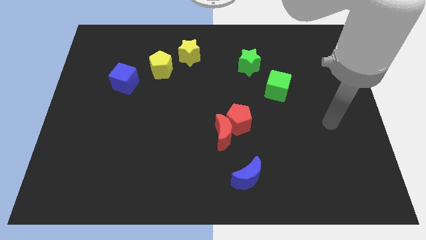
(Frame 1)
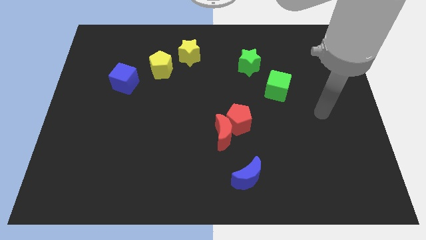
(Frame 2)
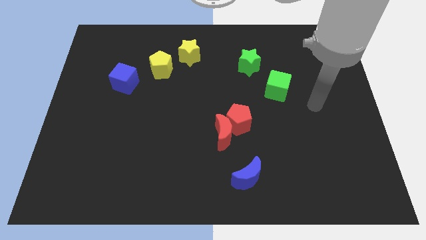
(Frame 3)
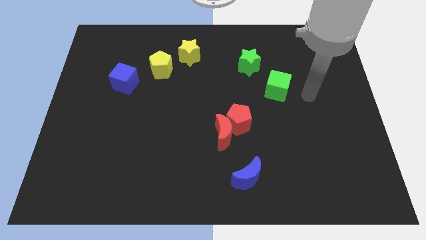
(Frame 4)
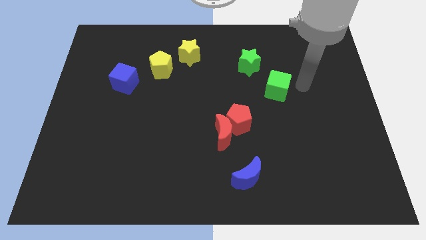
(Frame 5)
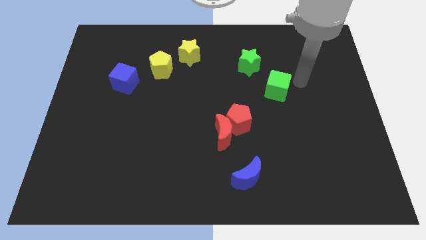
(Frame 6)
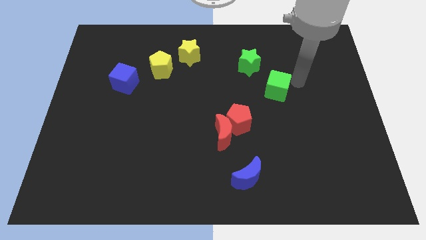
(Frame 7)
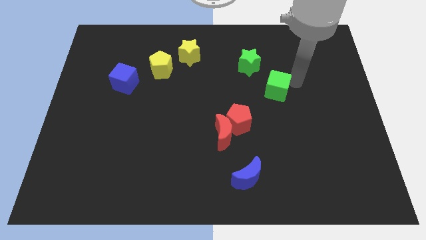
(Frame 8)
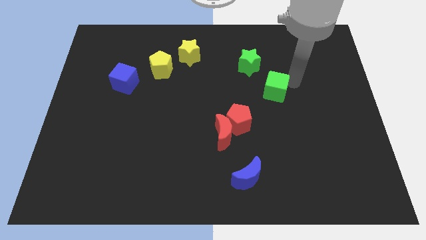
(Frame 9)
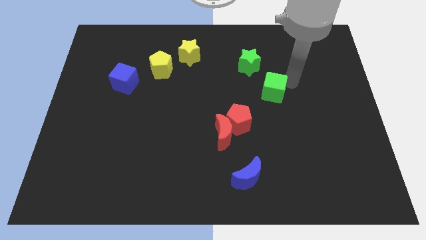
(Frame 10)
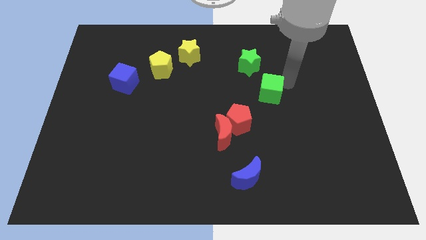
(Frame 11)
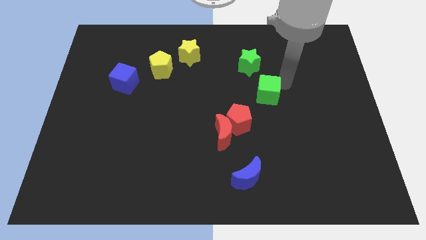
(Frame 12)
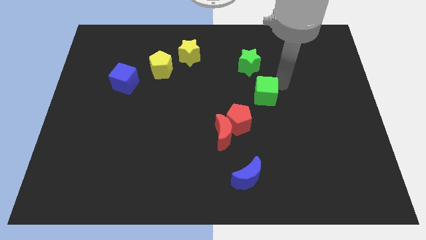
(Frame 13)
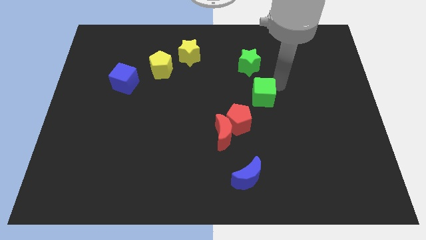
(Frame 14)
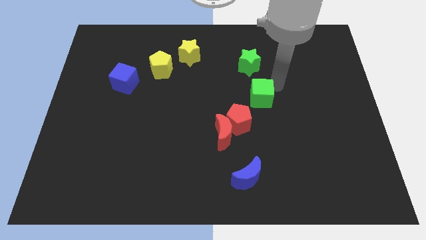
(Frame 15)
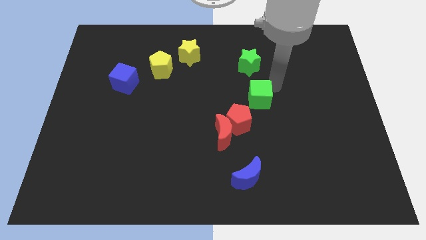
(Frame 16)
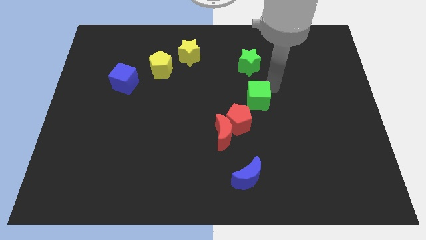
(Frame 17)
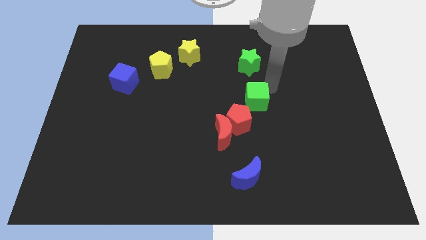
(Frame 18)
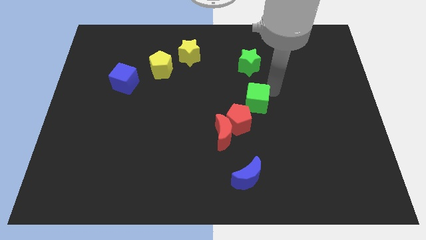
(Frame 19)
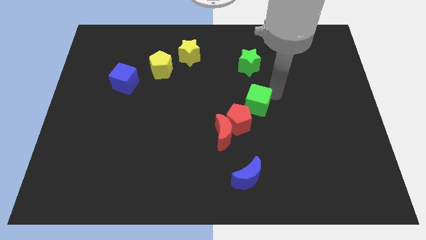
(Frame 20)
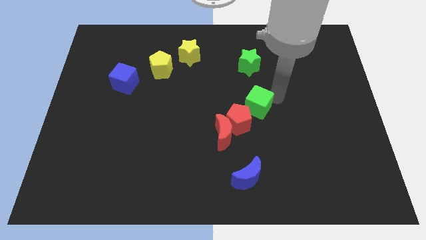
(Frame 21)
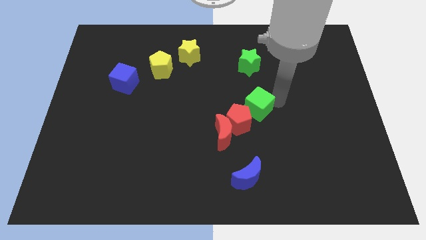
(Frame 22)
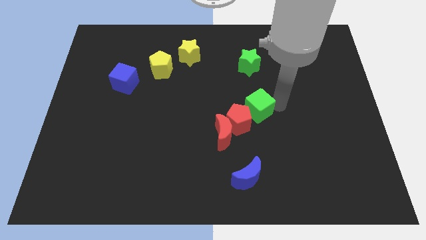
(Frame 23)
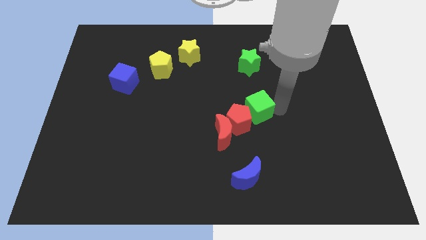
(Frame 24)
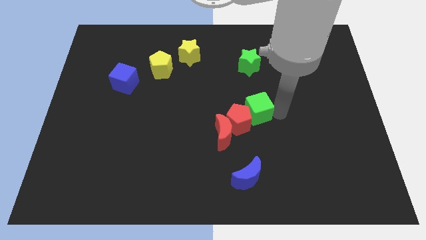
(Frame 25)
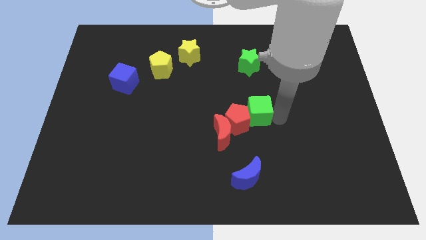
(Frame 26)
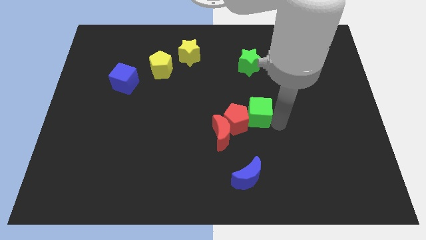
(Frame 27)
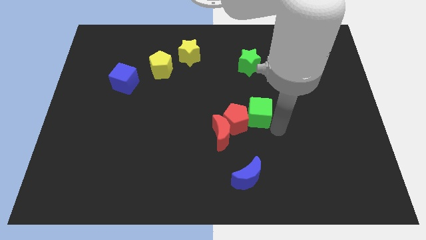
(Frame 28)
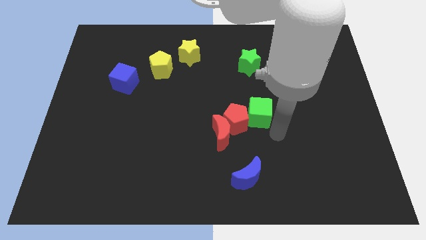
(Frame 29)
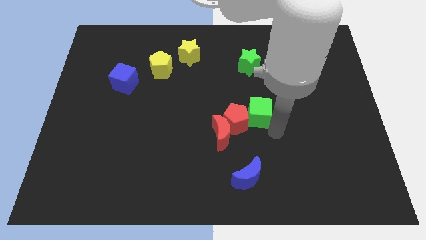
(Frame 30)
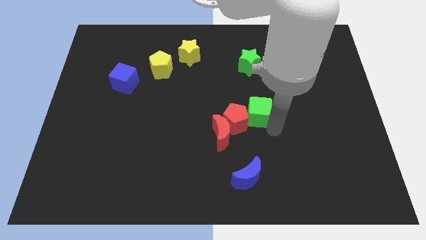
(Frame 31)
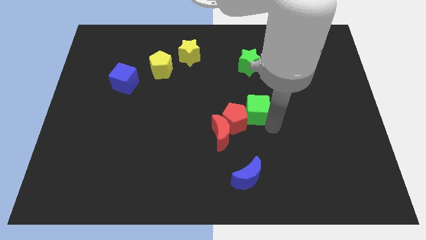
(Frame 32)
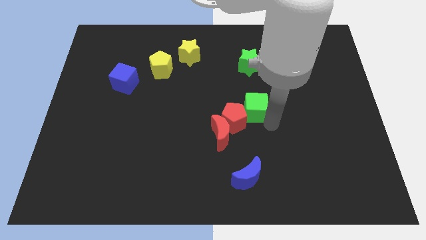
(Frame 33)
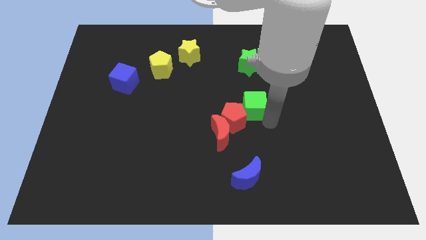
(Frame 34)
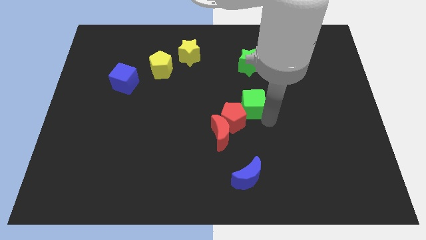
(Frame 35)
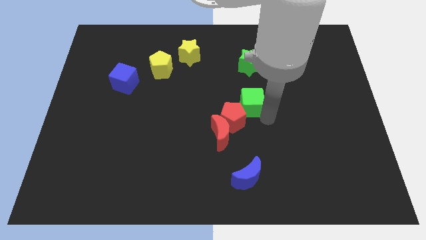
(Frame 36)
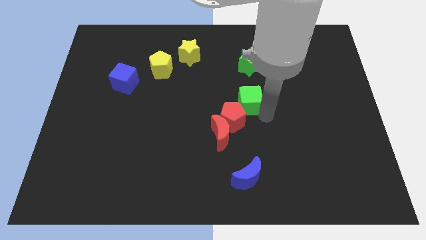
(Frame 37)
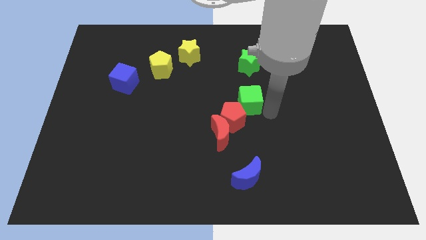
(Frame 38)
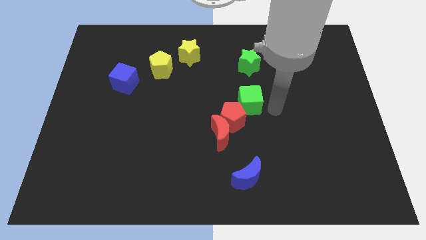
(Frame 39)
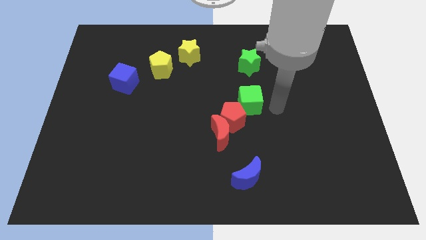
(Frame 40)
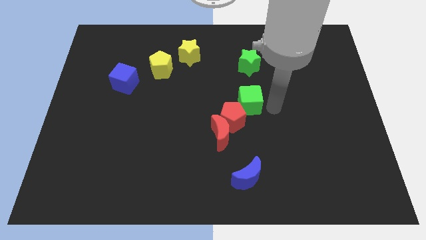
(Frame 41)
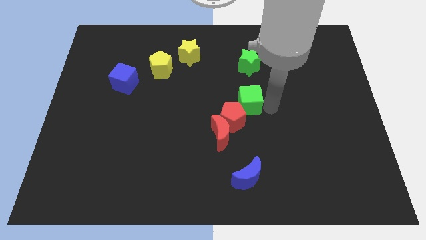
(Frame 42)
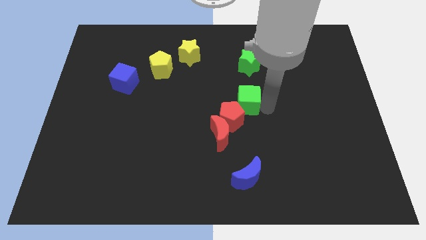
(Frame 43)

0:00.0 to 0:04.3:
slightly push the green cube to the left

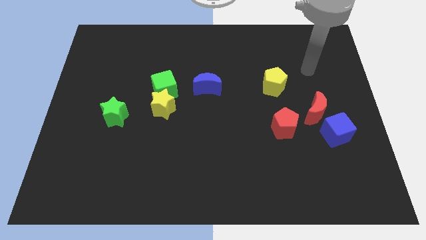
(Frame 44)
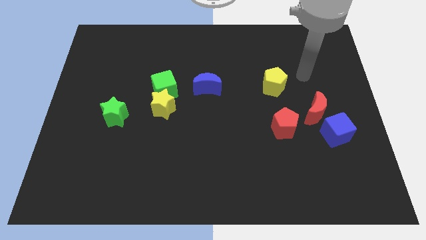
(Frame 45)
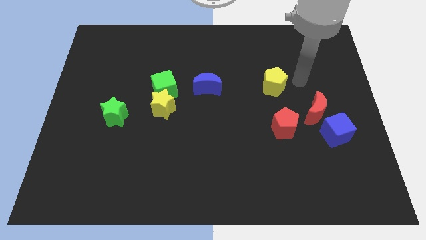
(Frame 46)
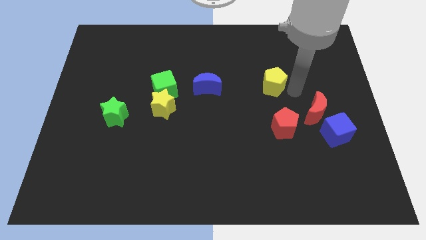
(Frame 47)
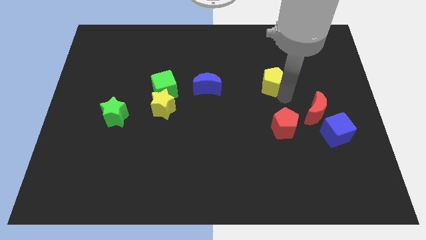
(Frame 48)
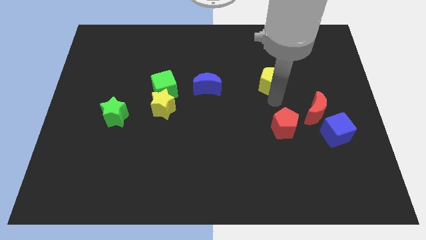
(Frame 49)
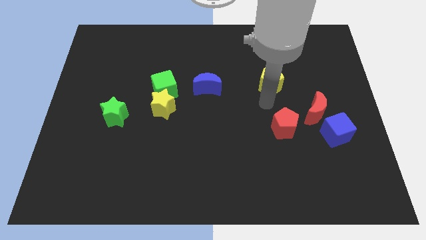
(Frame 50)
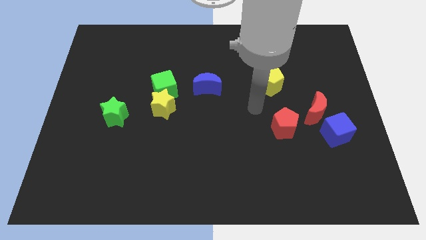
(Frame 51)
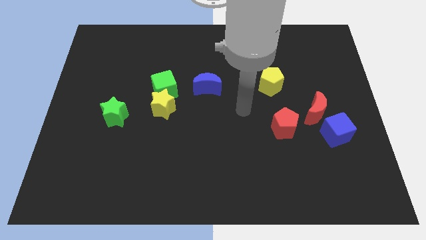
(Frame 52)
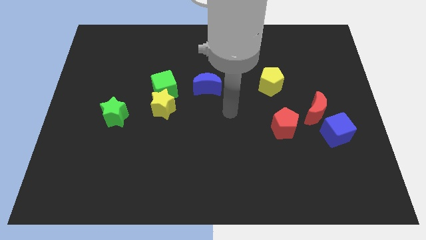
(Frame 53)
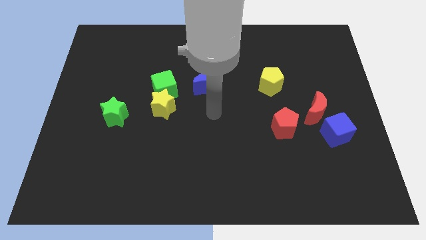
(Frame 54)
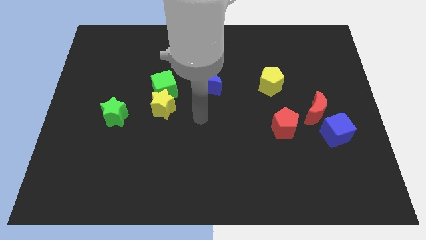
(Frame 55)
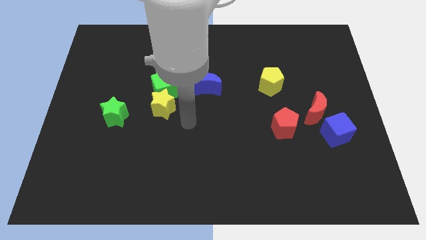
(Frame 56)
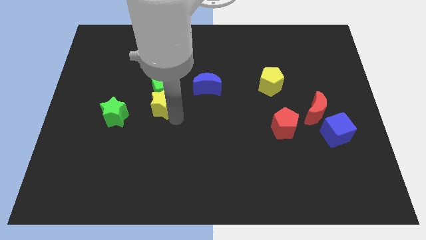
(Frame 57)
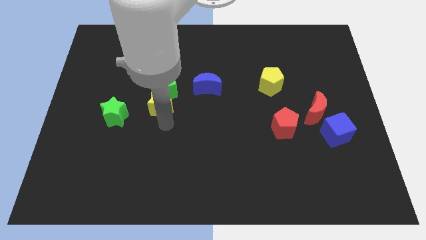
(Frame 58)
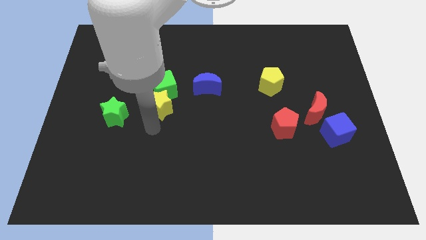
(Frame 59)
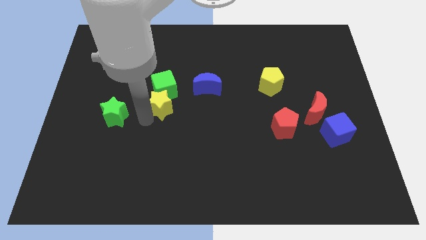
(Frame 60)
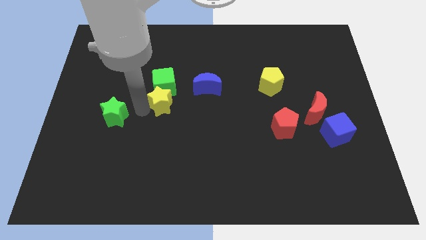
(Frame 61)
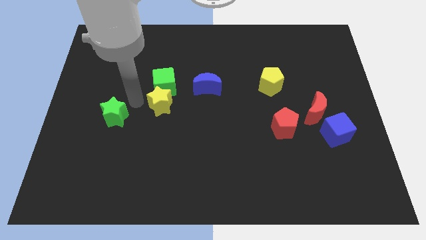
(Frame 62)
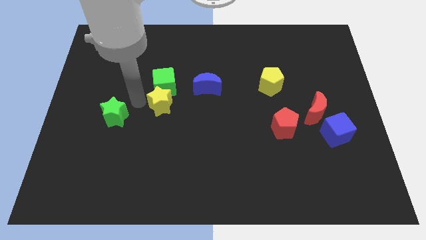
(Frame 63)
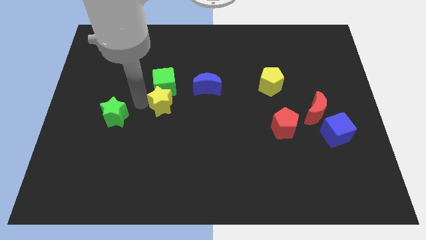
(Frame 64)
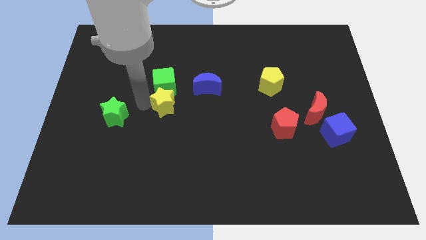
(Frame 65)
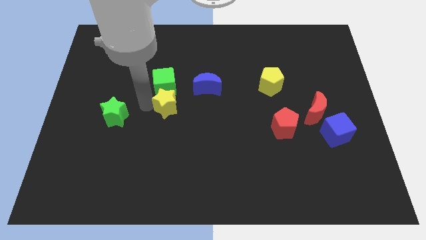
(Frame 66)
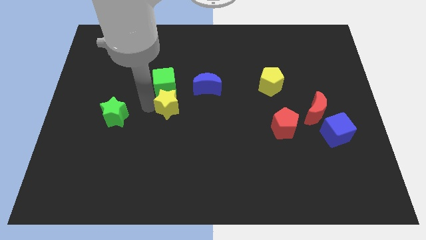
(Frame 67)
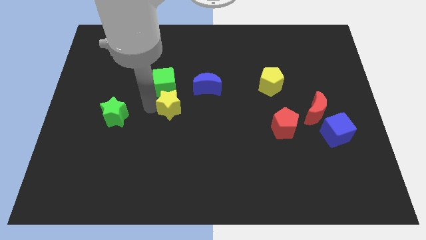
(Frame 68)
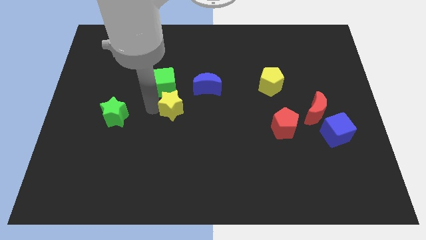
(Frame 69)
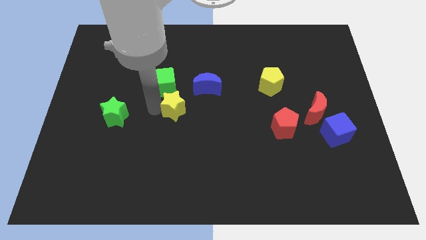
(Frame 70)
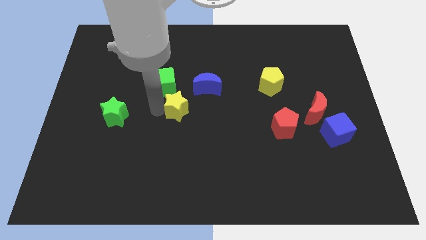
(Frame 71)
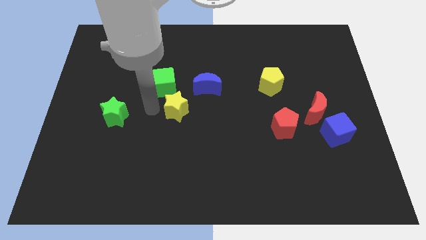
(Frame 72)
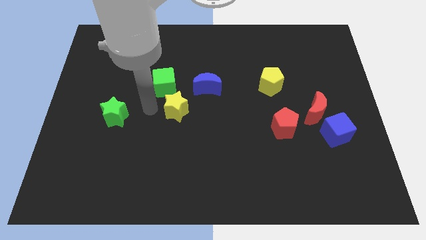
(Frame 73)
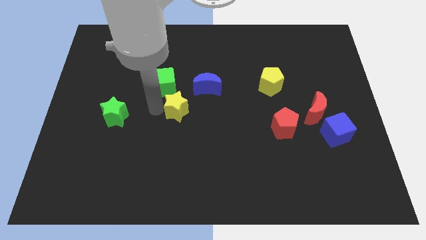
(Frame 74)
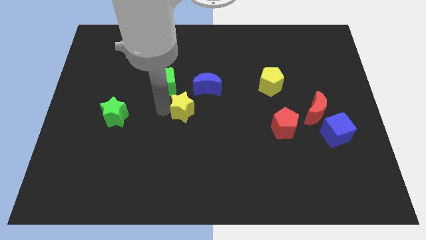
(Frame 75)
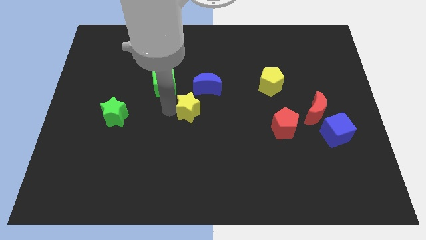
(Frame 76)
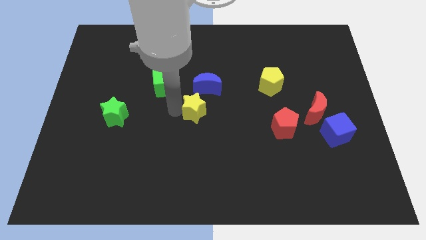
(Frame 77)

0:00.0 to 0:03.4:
slightly push the yellow star to the right

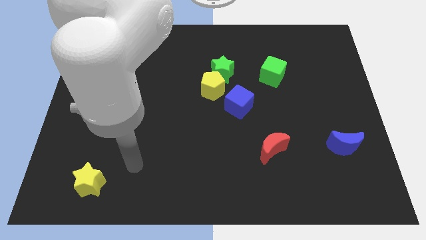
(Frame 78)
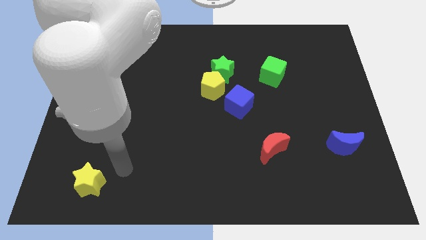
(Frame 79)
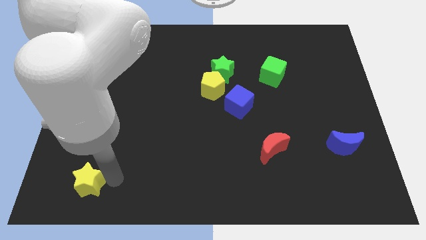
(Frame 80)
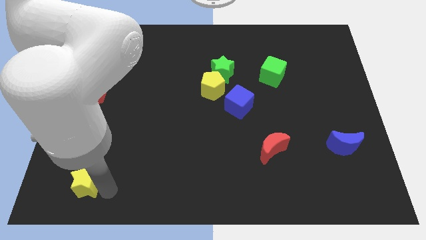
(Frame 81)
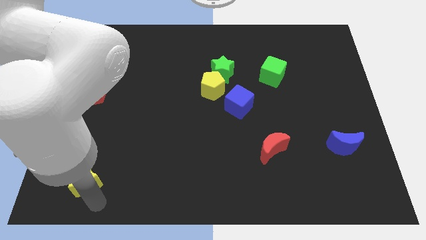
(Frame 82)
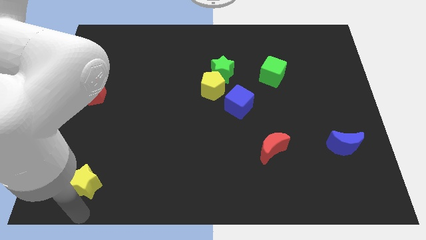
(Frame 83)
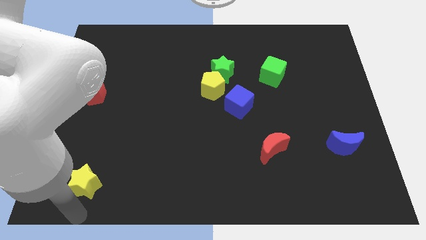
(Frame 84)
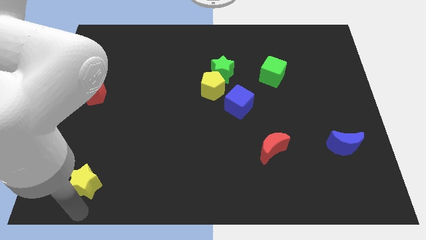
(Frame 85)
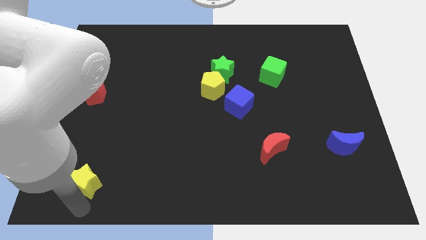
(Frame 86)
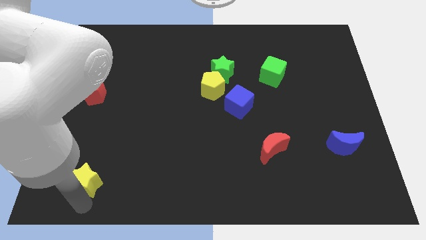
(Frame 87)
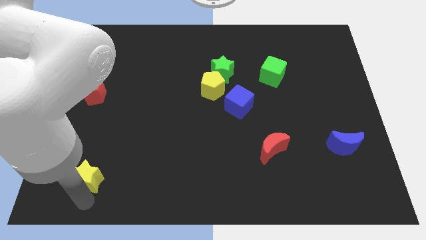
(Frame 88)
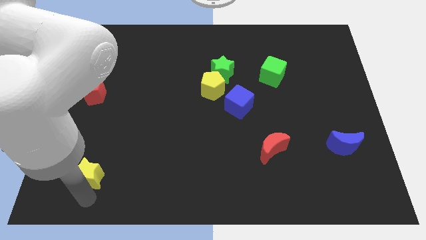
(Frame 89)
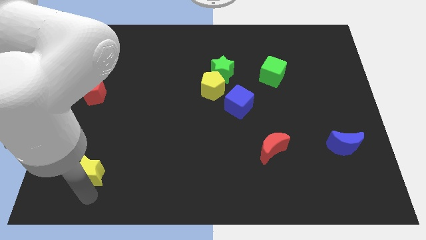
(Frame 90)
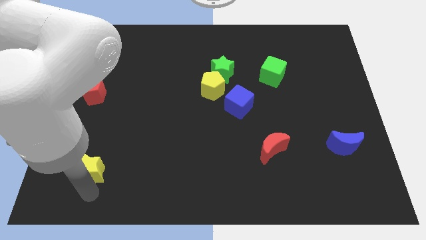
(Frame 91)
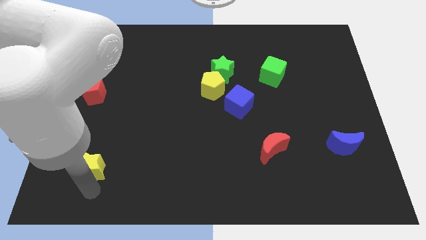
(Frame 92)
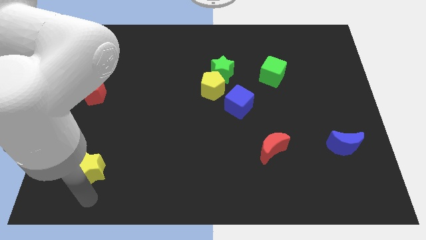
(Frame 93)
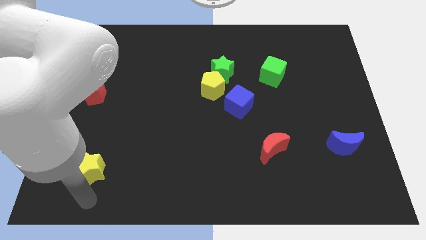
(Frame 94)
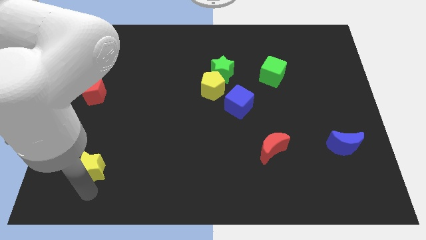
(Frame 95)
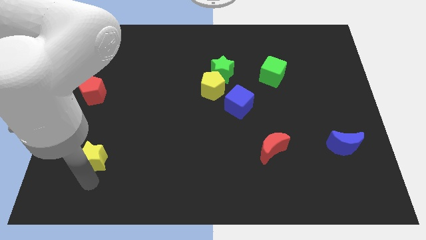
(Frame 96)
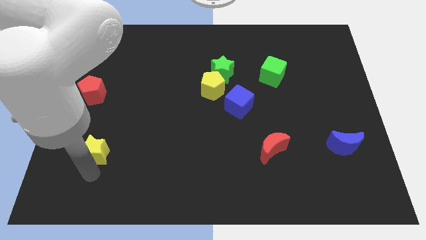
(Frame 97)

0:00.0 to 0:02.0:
slightly move the yellow star upwards
